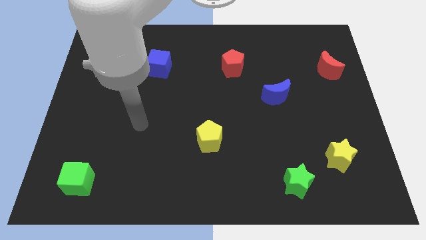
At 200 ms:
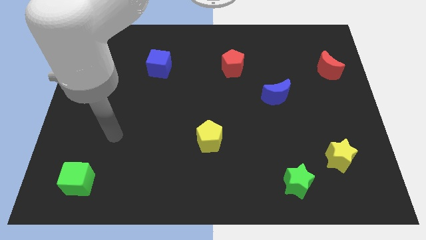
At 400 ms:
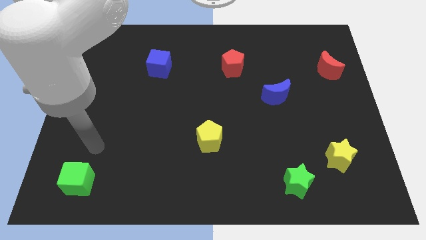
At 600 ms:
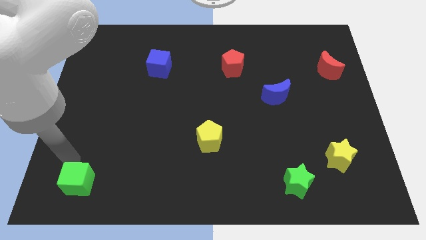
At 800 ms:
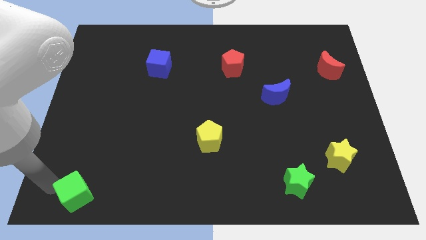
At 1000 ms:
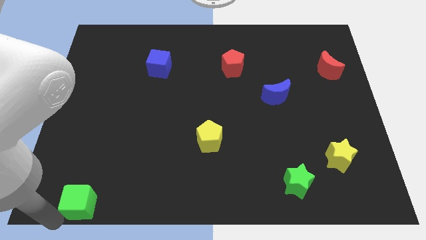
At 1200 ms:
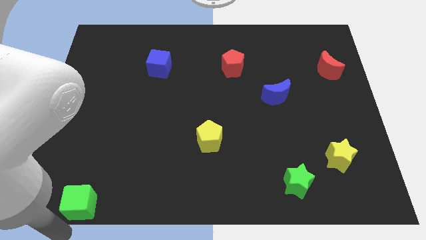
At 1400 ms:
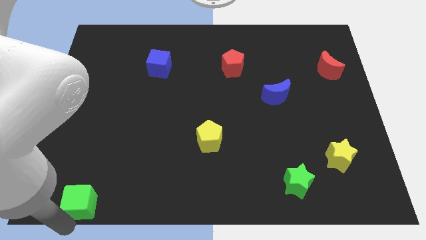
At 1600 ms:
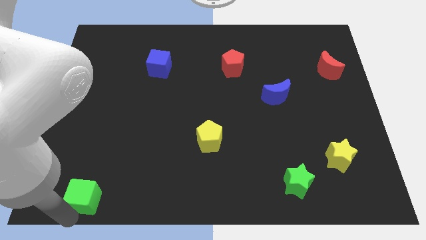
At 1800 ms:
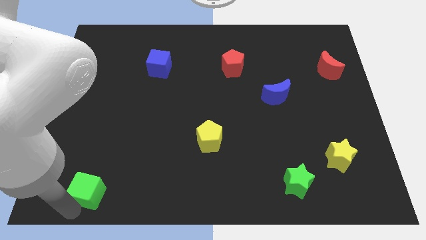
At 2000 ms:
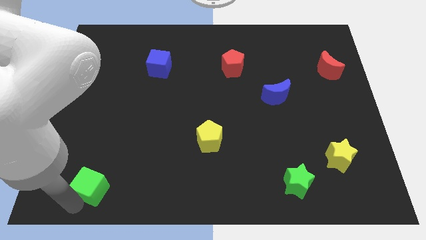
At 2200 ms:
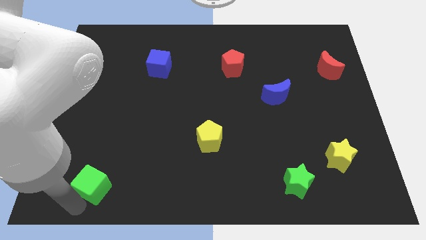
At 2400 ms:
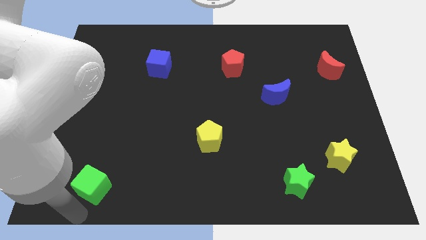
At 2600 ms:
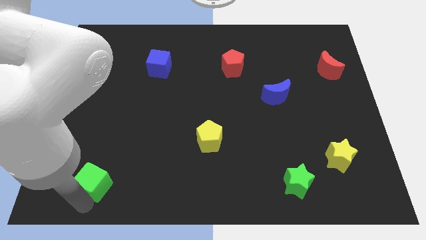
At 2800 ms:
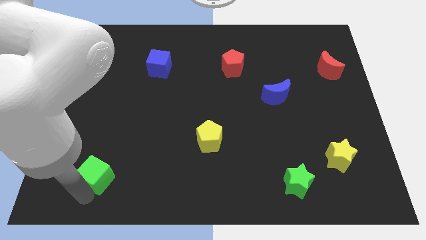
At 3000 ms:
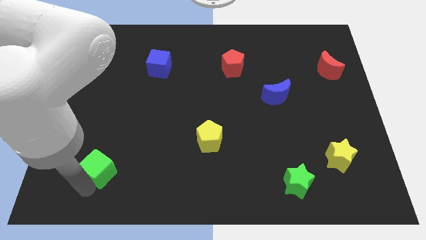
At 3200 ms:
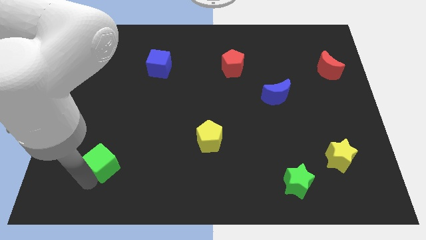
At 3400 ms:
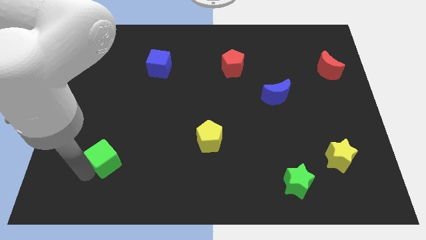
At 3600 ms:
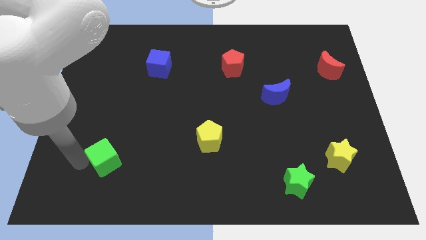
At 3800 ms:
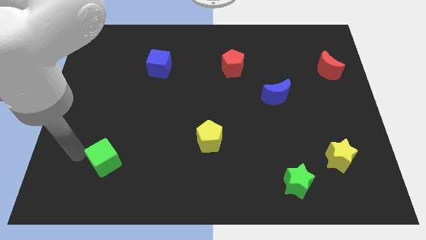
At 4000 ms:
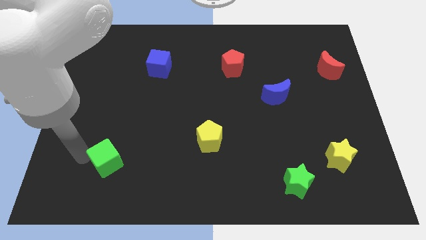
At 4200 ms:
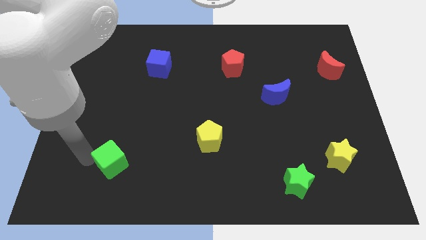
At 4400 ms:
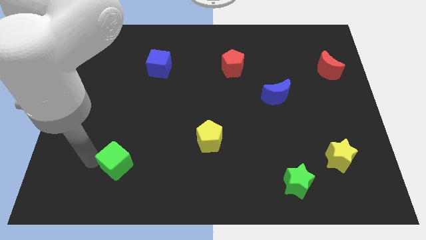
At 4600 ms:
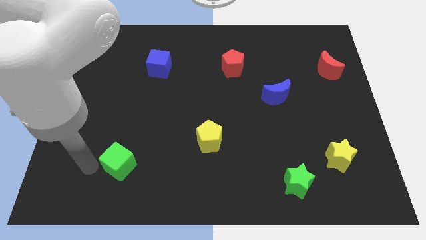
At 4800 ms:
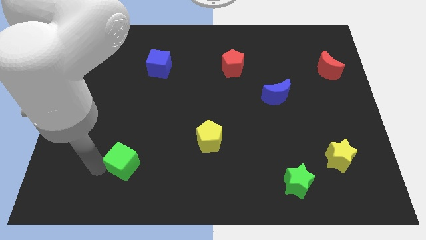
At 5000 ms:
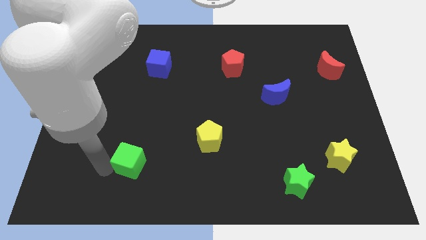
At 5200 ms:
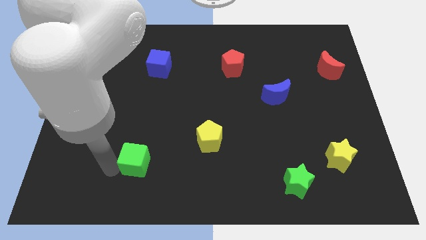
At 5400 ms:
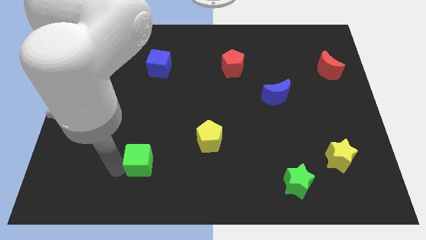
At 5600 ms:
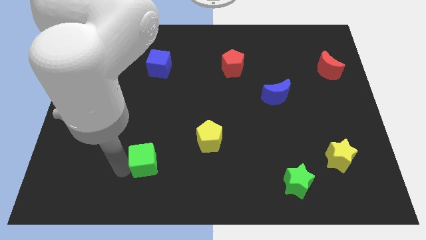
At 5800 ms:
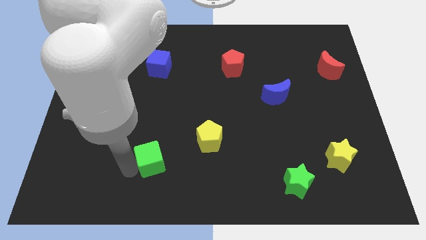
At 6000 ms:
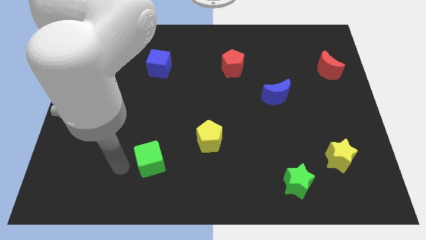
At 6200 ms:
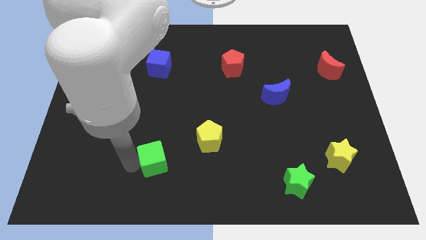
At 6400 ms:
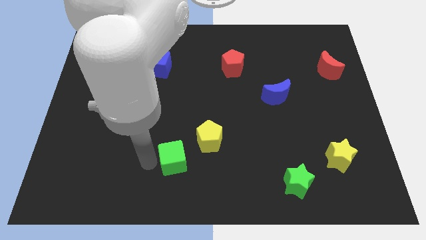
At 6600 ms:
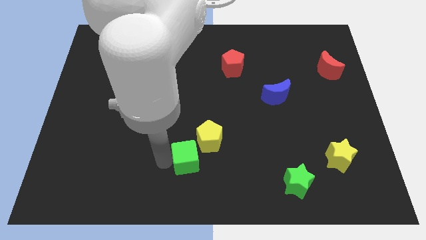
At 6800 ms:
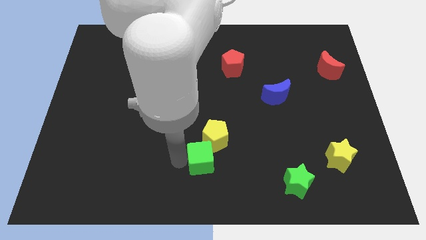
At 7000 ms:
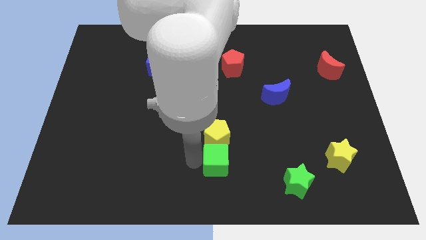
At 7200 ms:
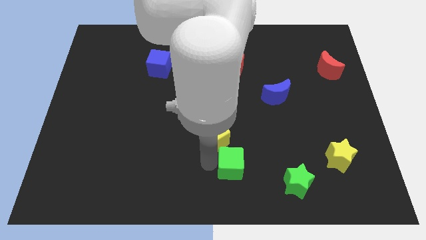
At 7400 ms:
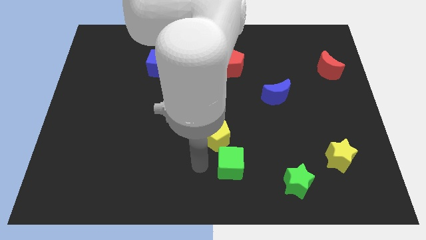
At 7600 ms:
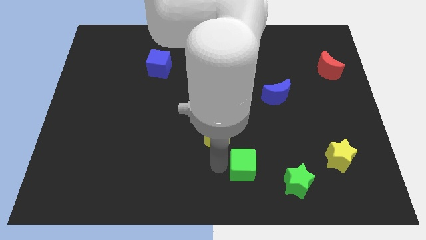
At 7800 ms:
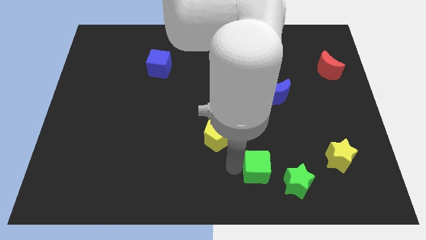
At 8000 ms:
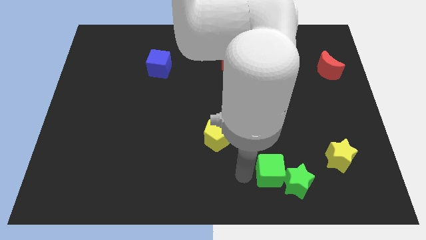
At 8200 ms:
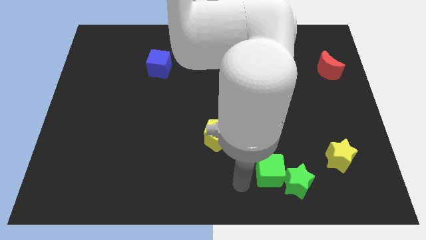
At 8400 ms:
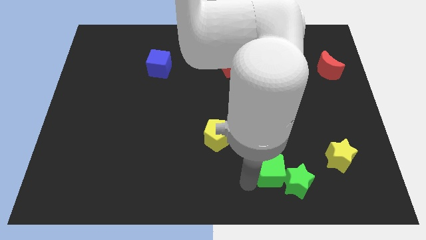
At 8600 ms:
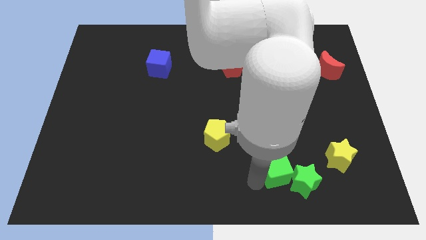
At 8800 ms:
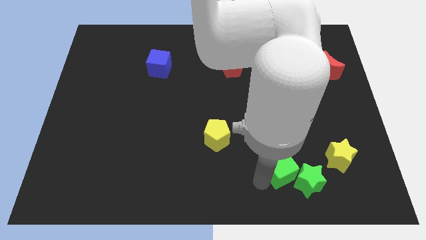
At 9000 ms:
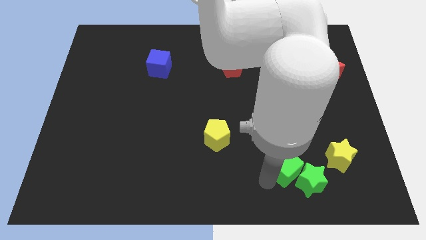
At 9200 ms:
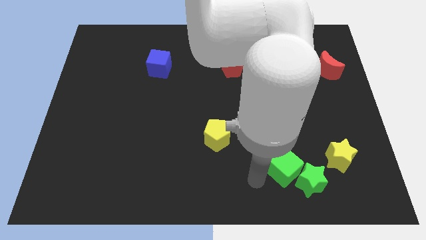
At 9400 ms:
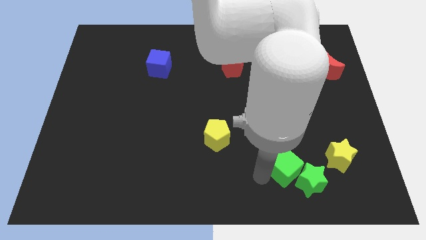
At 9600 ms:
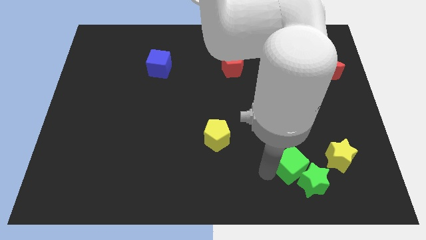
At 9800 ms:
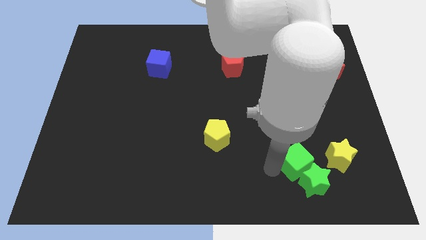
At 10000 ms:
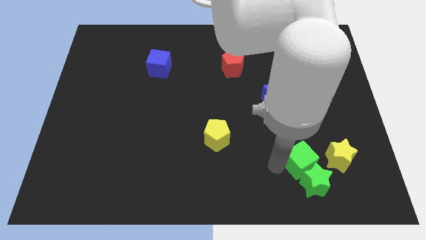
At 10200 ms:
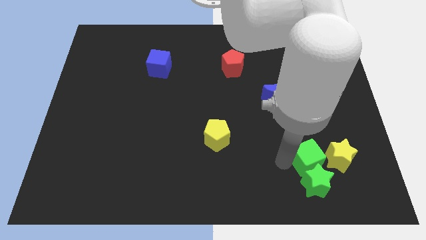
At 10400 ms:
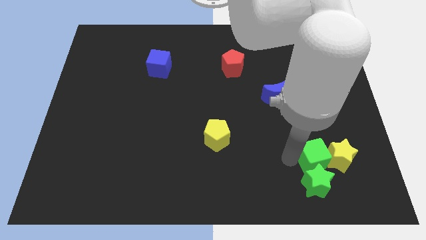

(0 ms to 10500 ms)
move the green cube to the yellow star

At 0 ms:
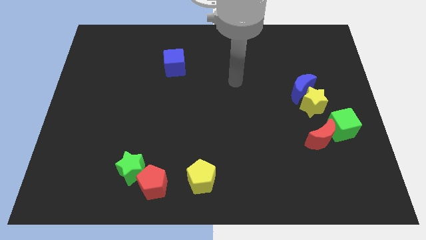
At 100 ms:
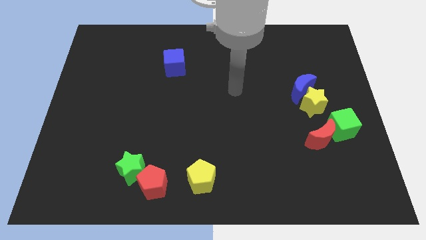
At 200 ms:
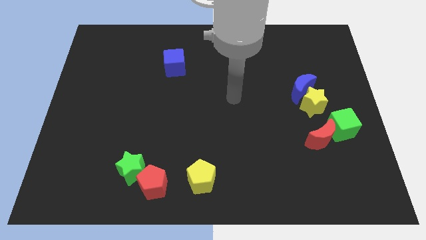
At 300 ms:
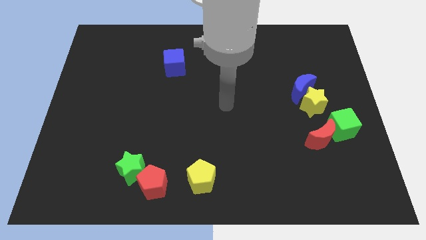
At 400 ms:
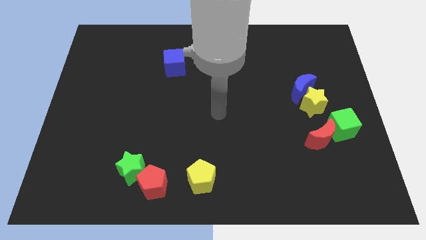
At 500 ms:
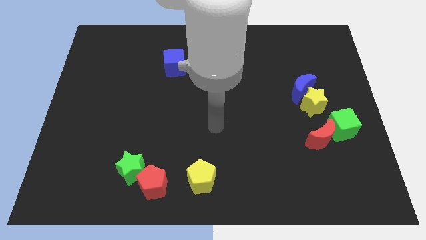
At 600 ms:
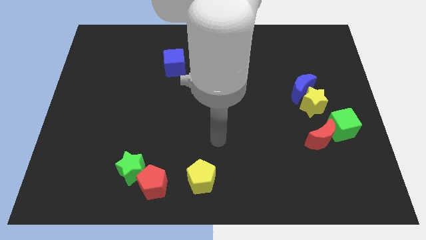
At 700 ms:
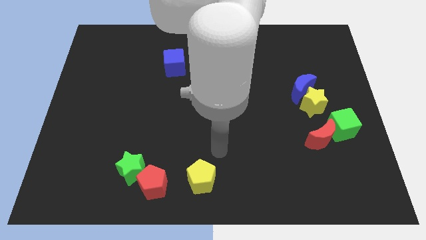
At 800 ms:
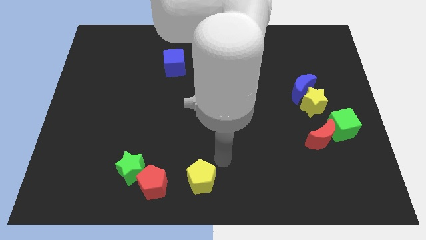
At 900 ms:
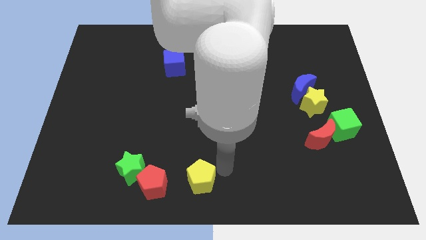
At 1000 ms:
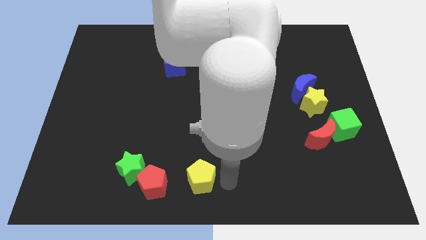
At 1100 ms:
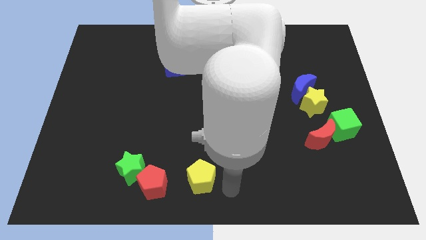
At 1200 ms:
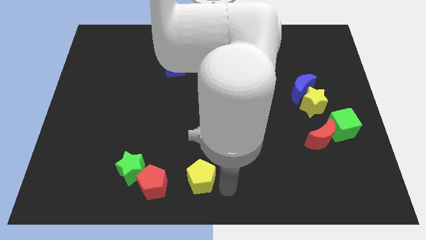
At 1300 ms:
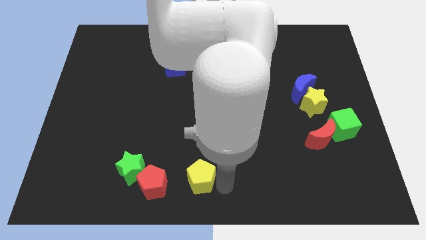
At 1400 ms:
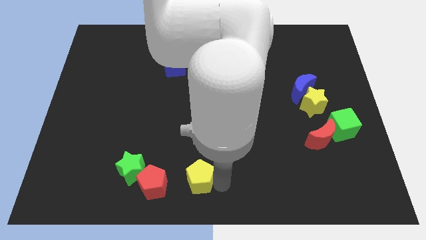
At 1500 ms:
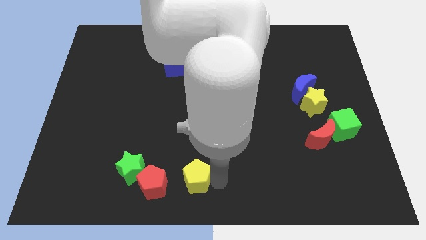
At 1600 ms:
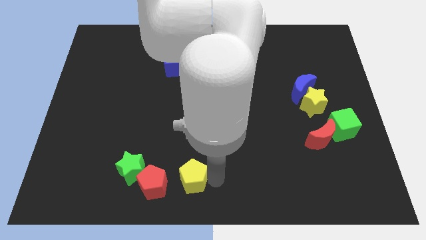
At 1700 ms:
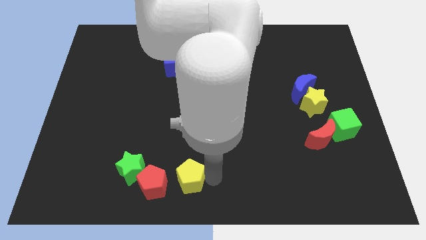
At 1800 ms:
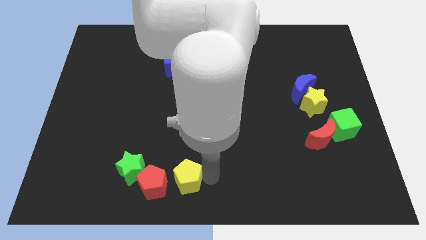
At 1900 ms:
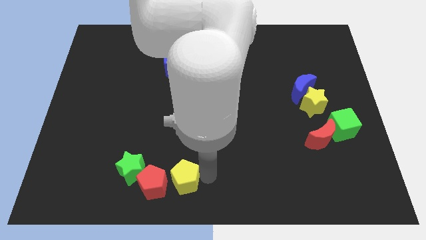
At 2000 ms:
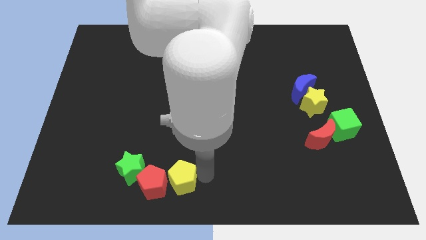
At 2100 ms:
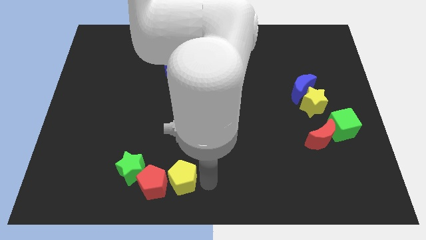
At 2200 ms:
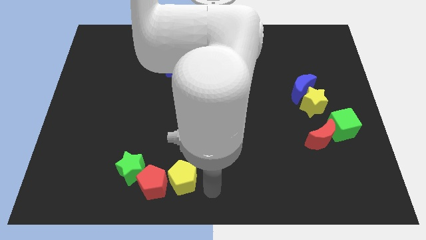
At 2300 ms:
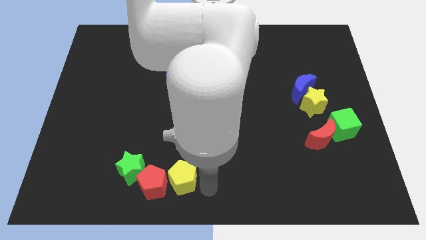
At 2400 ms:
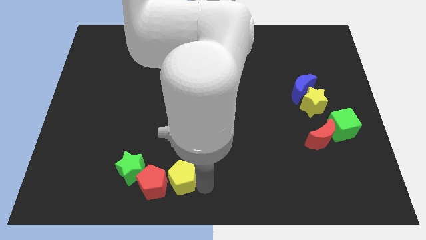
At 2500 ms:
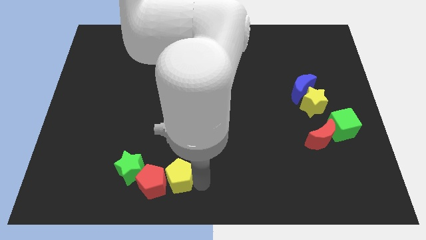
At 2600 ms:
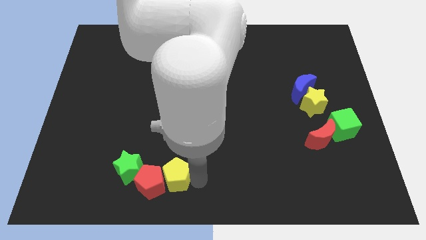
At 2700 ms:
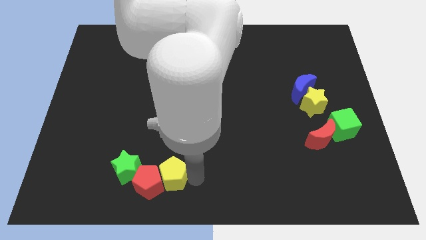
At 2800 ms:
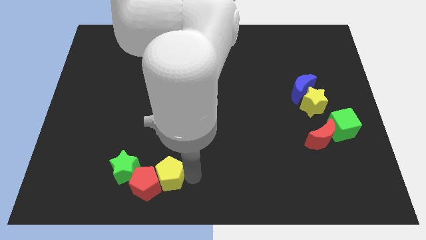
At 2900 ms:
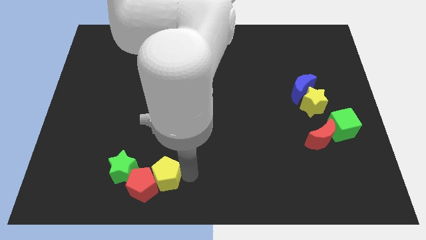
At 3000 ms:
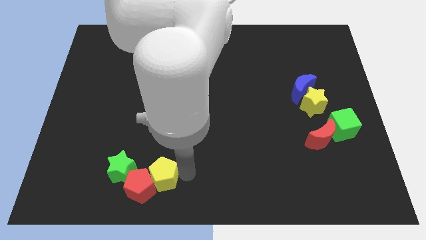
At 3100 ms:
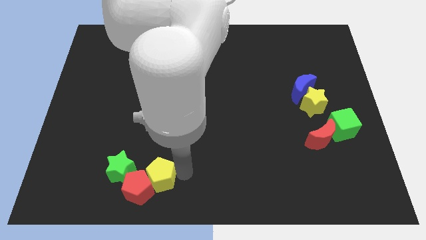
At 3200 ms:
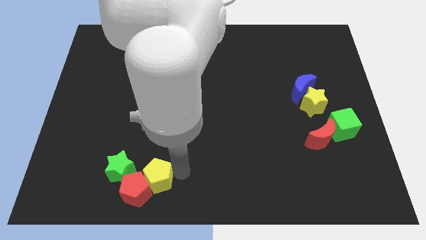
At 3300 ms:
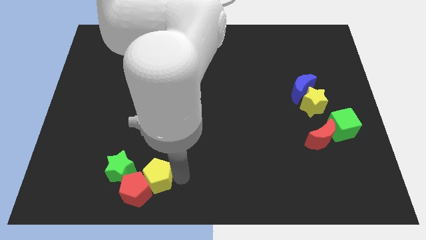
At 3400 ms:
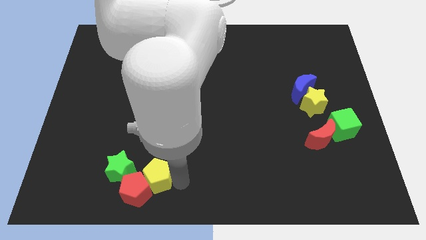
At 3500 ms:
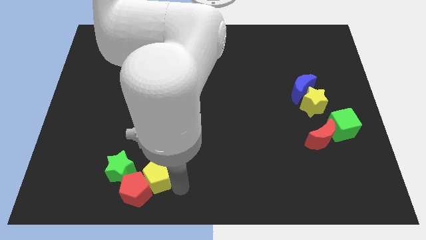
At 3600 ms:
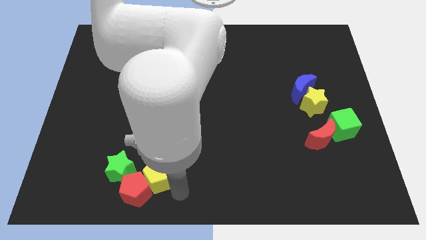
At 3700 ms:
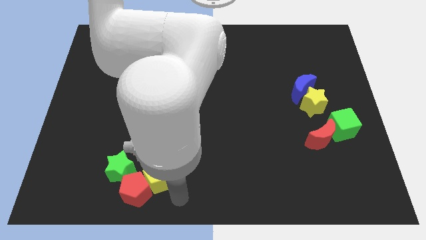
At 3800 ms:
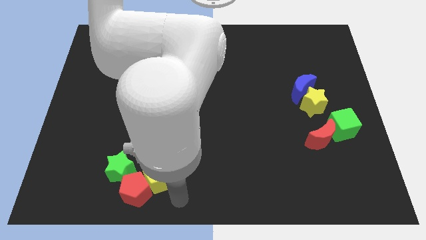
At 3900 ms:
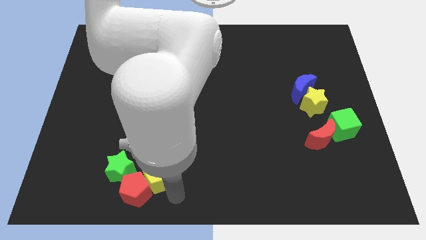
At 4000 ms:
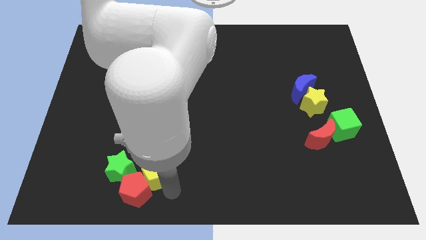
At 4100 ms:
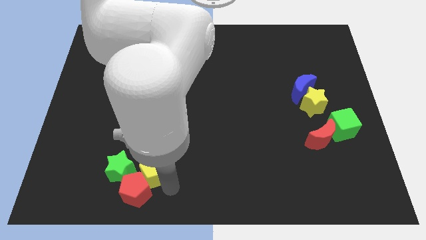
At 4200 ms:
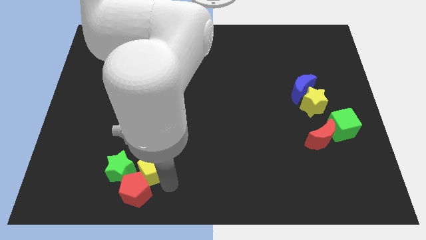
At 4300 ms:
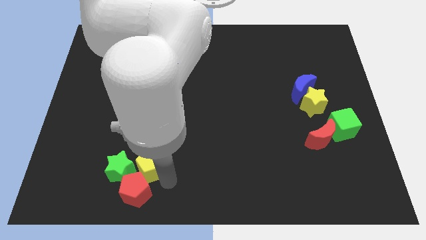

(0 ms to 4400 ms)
push the yellow pentagon close to the green star
